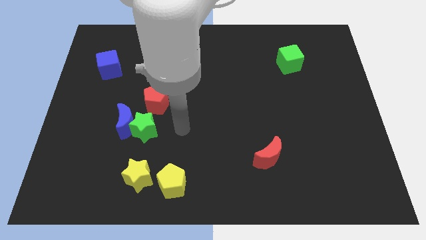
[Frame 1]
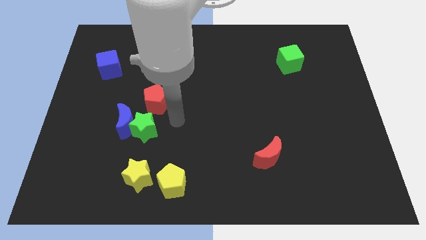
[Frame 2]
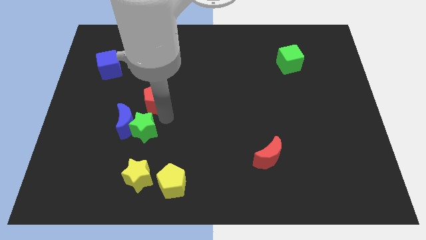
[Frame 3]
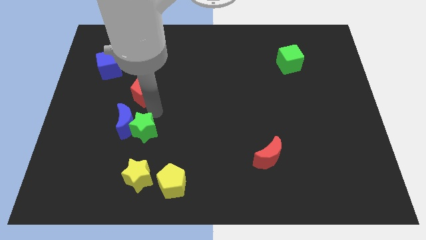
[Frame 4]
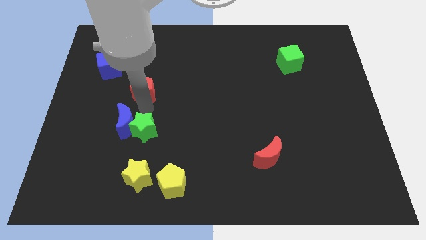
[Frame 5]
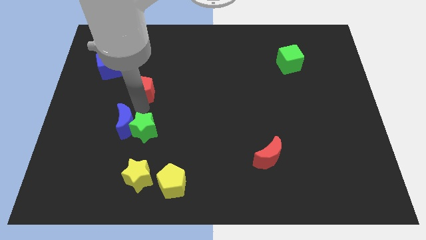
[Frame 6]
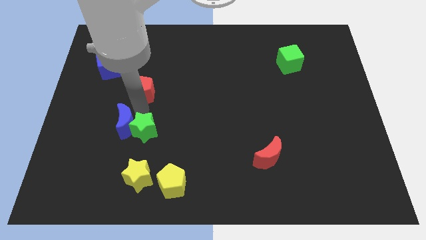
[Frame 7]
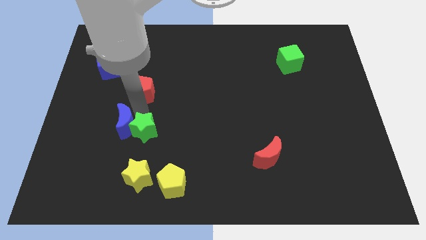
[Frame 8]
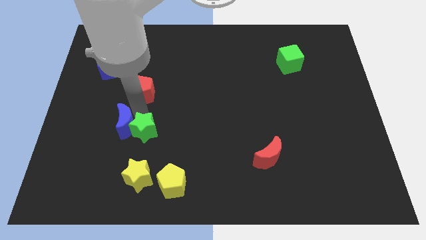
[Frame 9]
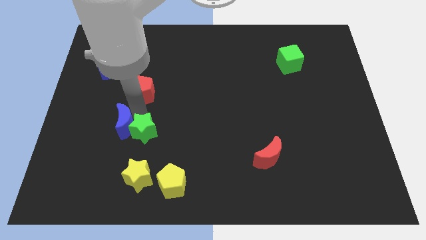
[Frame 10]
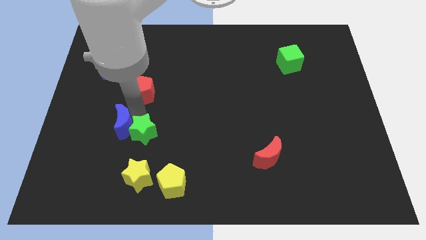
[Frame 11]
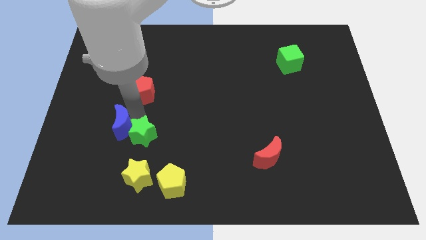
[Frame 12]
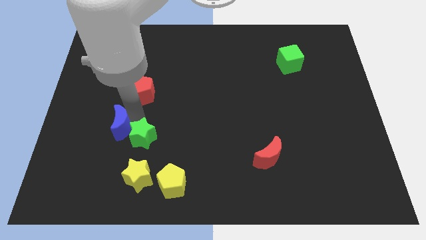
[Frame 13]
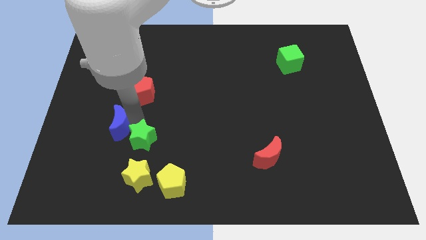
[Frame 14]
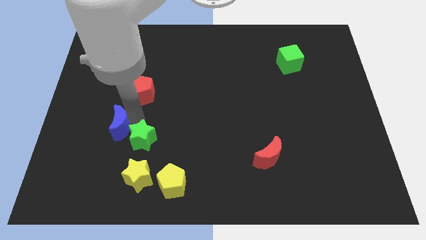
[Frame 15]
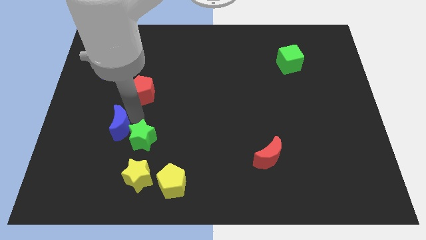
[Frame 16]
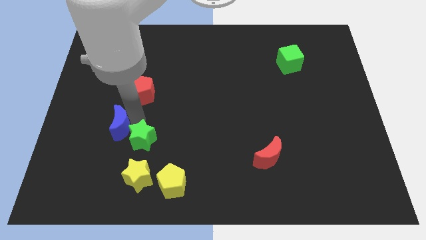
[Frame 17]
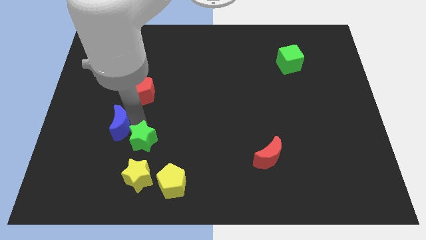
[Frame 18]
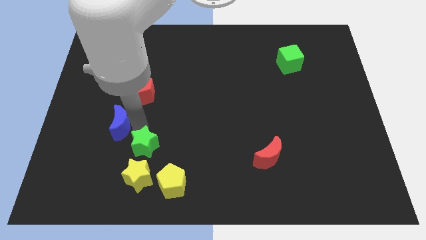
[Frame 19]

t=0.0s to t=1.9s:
pull the green star apart from the blue moon and red pentagon

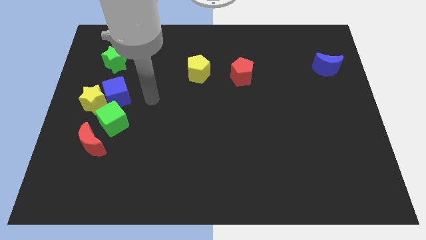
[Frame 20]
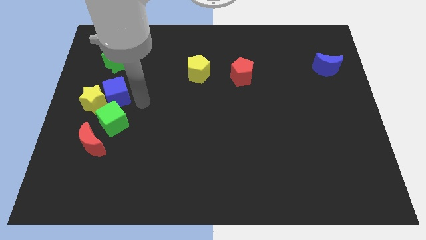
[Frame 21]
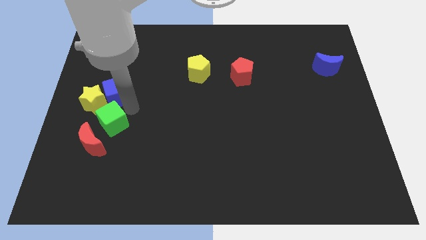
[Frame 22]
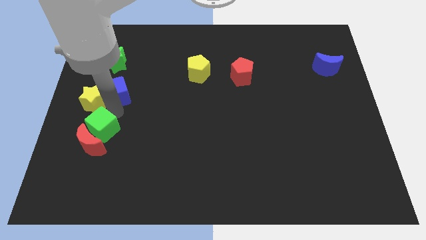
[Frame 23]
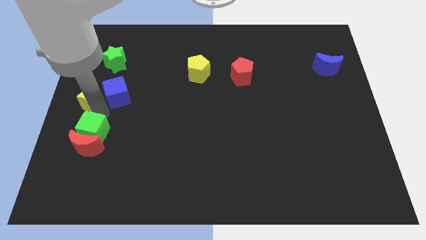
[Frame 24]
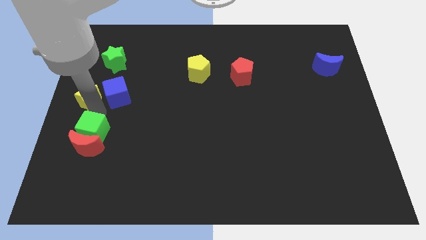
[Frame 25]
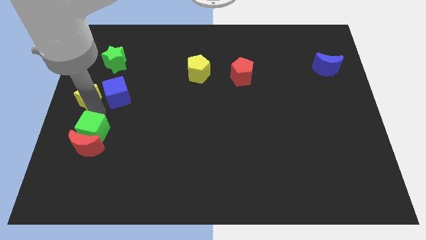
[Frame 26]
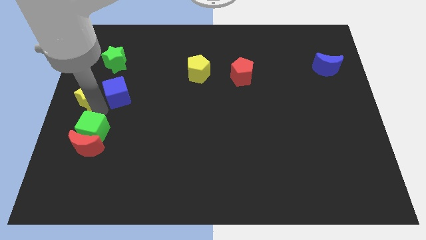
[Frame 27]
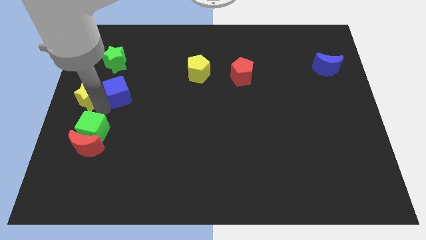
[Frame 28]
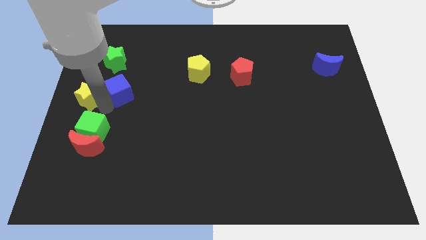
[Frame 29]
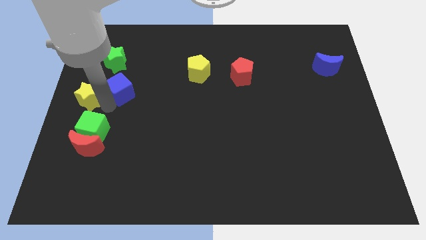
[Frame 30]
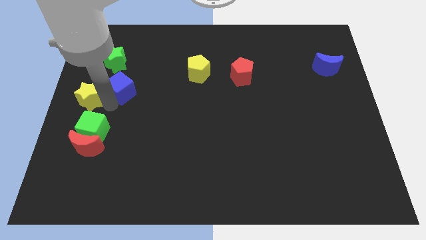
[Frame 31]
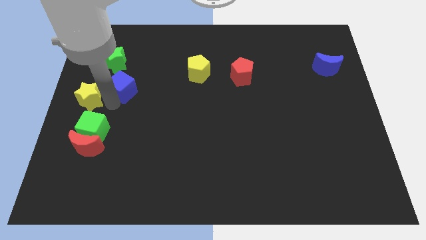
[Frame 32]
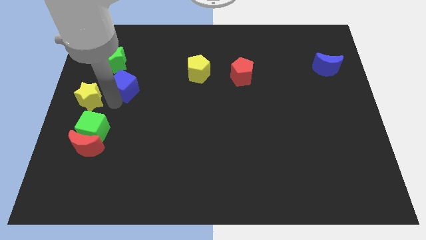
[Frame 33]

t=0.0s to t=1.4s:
pull the blue cube apart from the yellow star and green cube

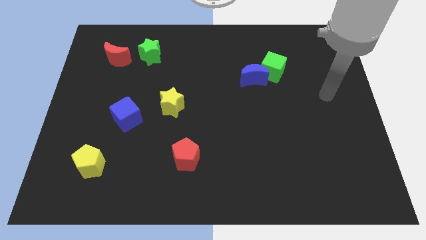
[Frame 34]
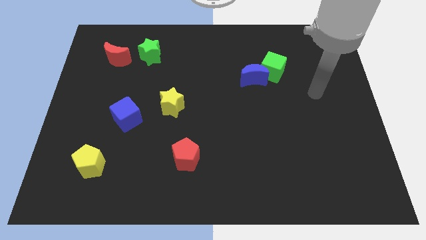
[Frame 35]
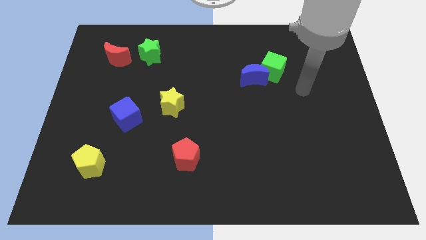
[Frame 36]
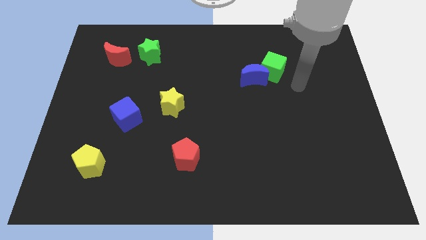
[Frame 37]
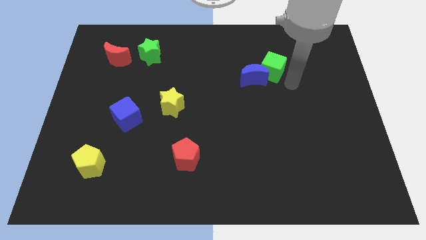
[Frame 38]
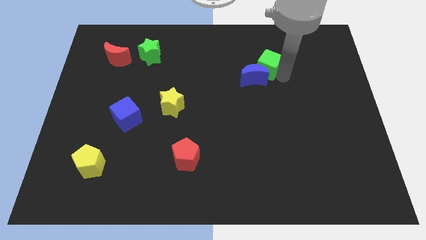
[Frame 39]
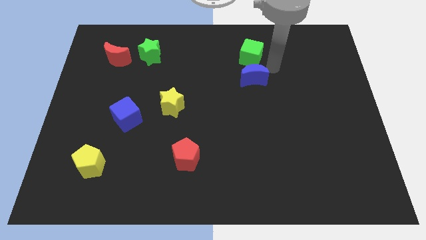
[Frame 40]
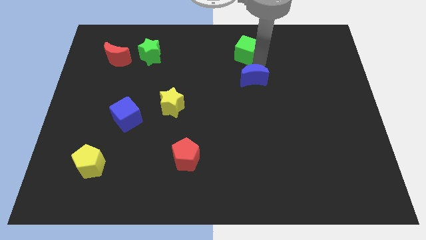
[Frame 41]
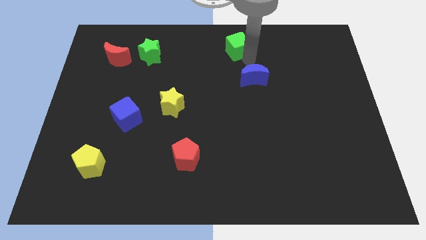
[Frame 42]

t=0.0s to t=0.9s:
pull the blue moon apart from the green cube

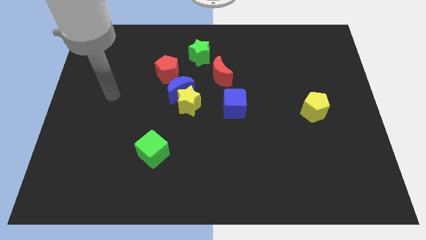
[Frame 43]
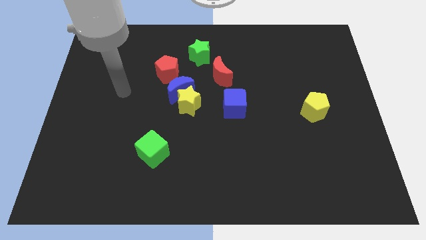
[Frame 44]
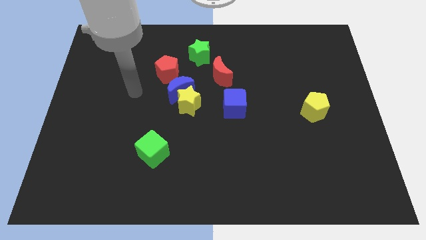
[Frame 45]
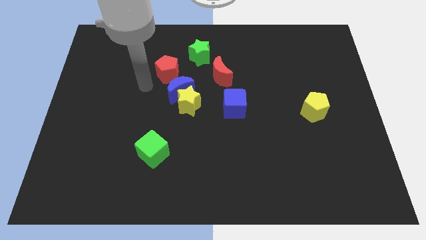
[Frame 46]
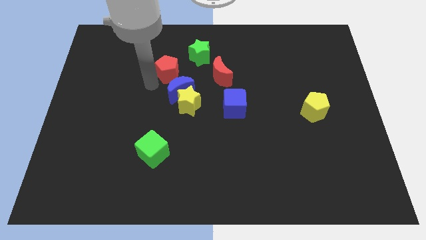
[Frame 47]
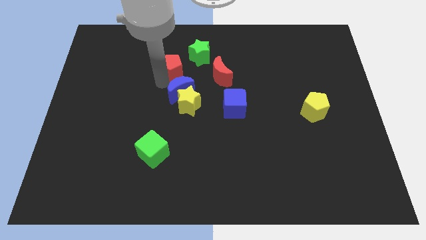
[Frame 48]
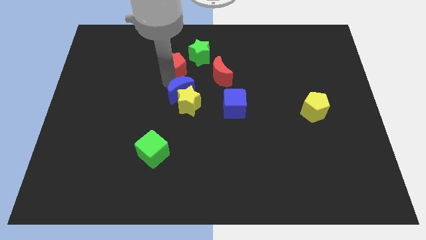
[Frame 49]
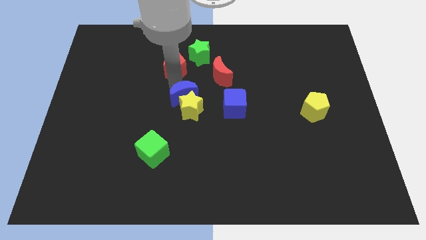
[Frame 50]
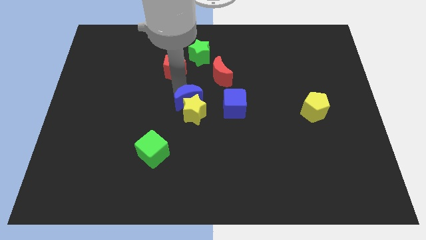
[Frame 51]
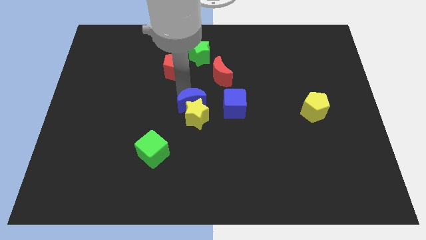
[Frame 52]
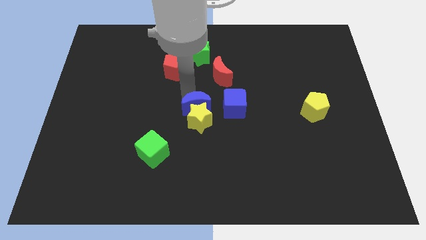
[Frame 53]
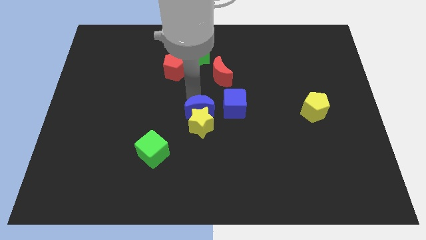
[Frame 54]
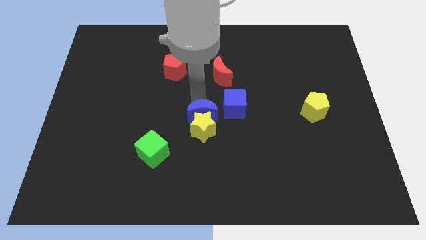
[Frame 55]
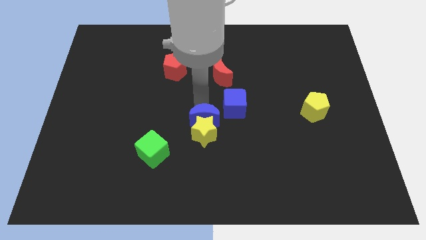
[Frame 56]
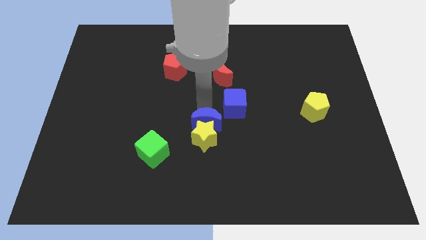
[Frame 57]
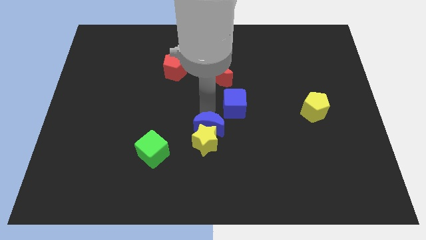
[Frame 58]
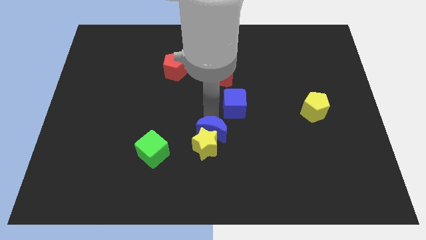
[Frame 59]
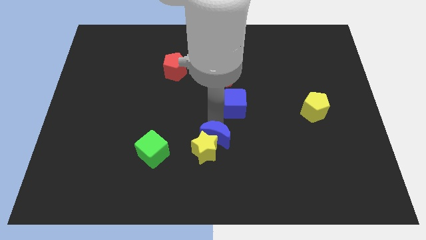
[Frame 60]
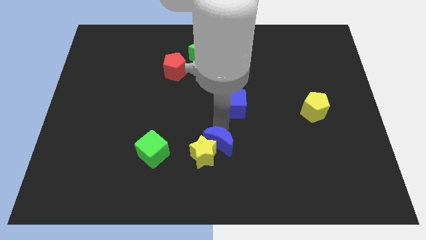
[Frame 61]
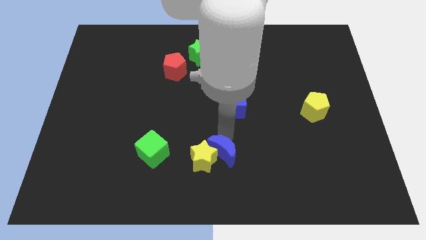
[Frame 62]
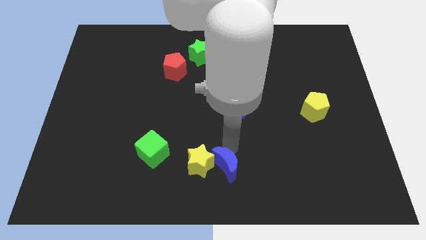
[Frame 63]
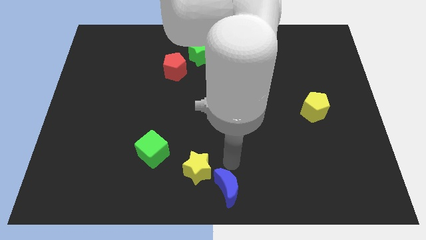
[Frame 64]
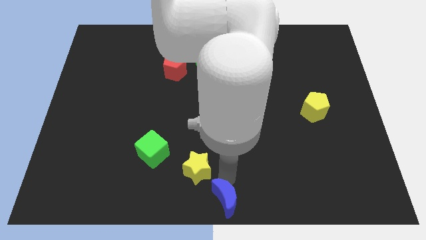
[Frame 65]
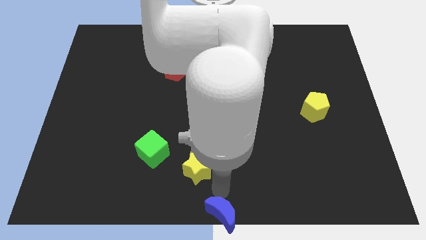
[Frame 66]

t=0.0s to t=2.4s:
move the yellow star away from the blue moon

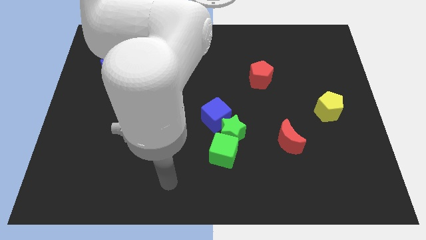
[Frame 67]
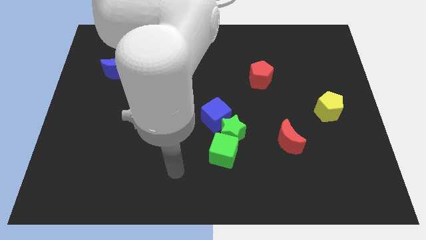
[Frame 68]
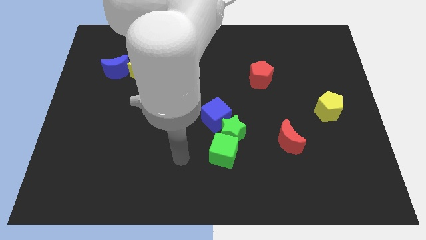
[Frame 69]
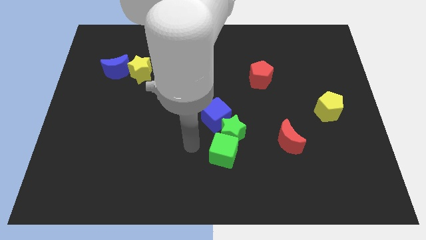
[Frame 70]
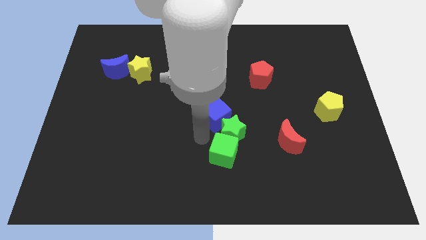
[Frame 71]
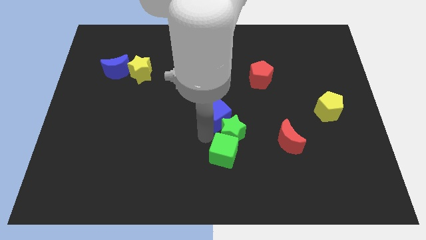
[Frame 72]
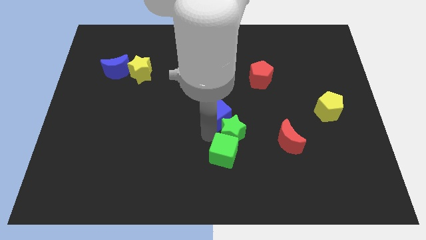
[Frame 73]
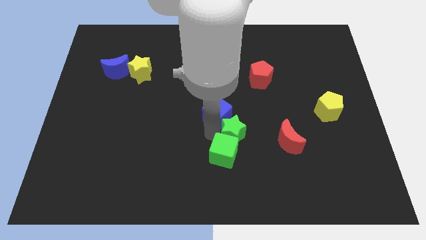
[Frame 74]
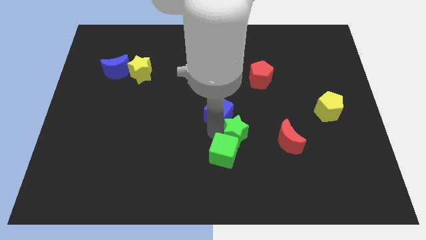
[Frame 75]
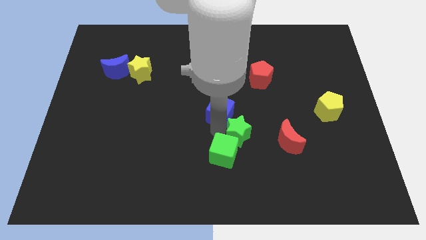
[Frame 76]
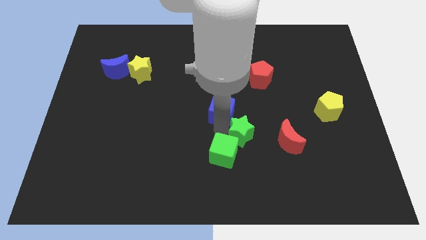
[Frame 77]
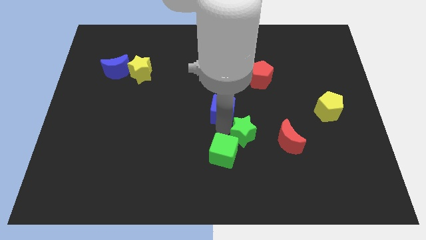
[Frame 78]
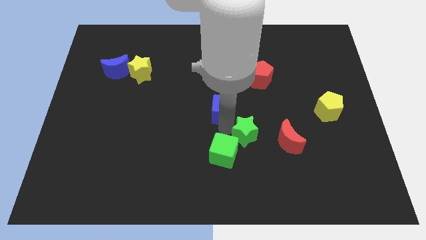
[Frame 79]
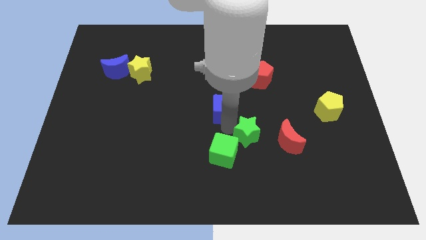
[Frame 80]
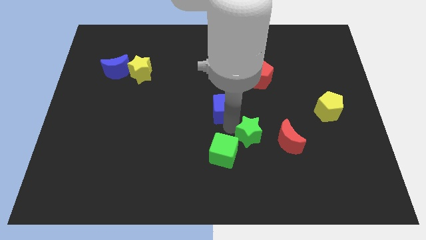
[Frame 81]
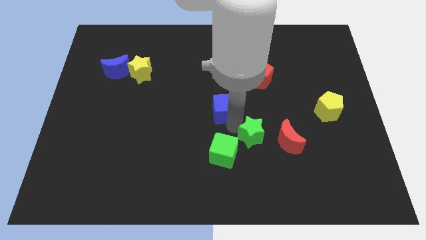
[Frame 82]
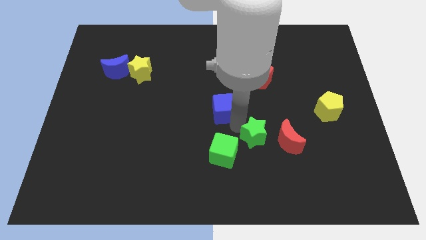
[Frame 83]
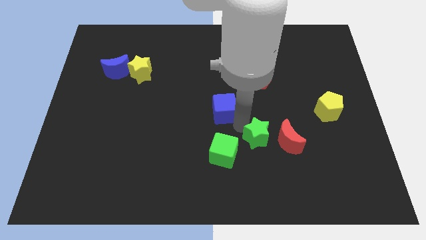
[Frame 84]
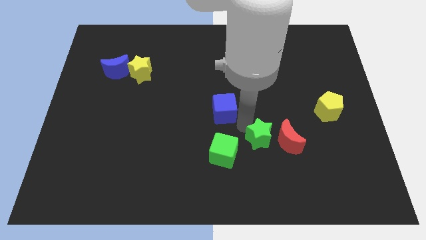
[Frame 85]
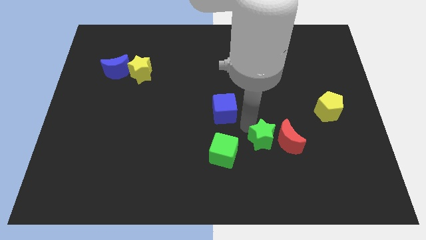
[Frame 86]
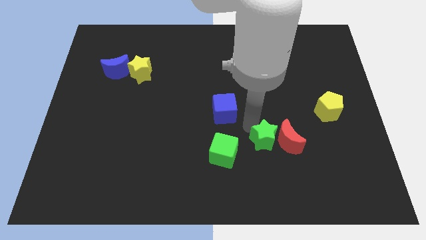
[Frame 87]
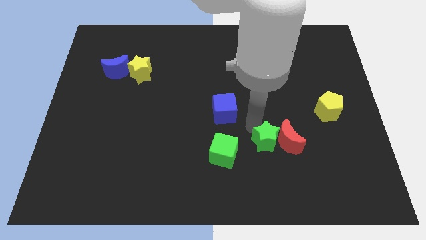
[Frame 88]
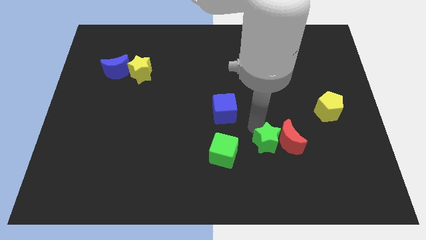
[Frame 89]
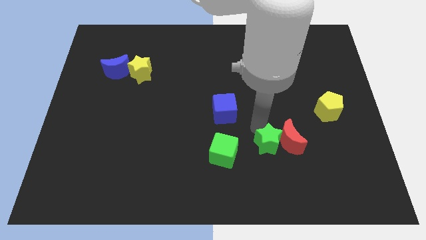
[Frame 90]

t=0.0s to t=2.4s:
move the green star away from the green cube and blue cube
